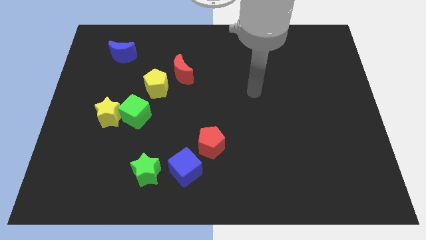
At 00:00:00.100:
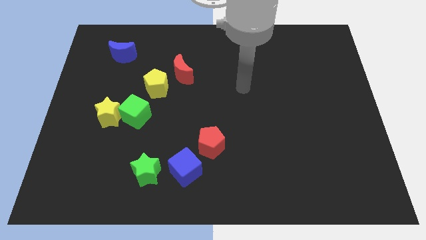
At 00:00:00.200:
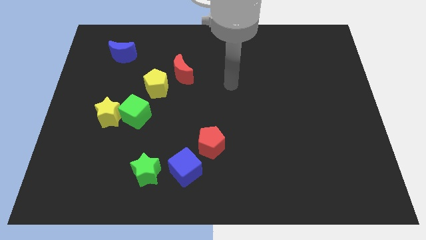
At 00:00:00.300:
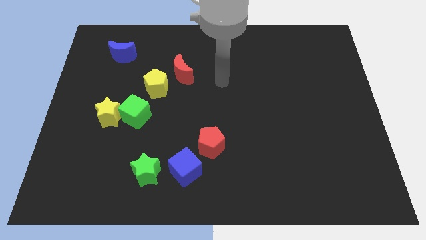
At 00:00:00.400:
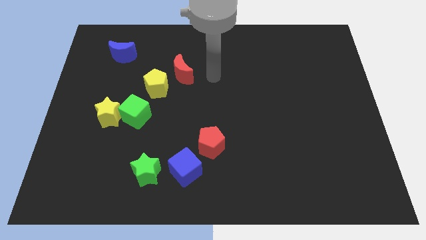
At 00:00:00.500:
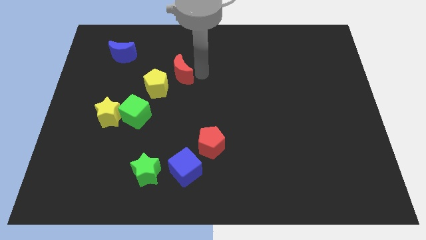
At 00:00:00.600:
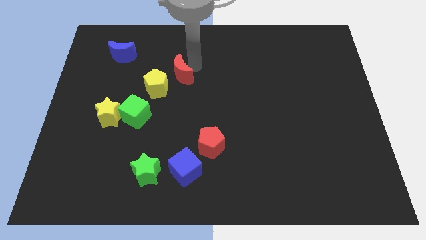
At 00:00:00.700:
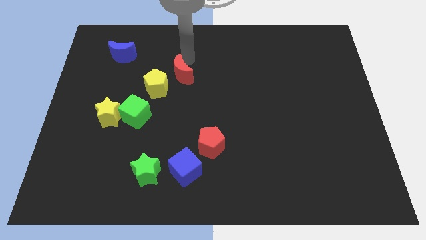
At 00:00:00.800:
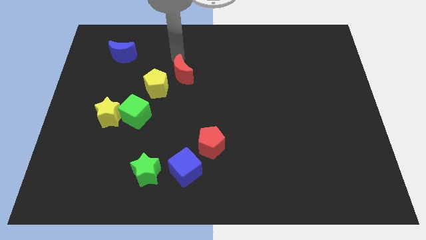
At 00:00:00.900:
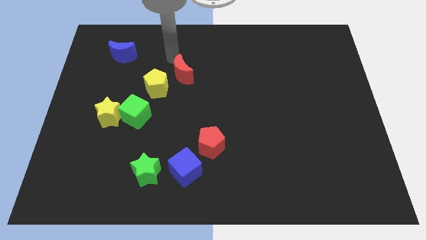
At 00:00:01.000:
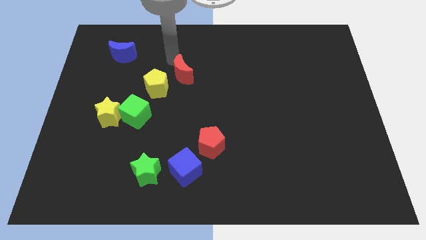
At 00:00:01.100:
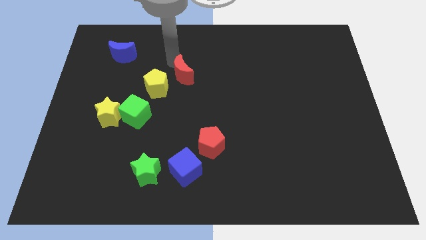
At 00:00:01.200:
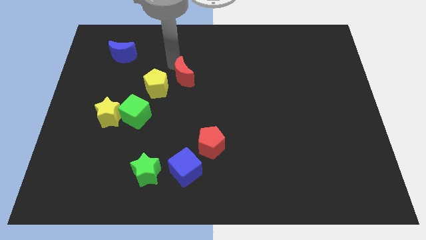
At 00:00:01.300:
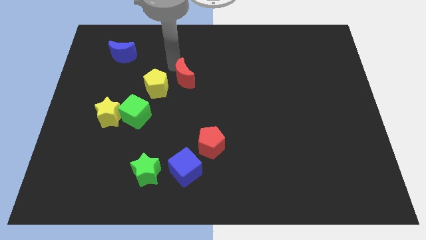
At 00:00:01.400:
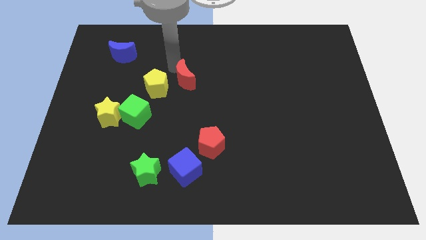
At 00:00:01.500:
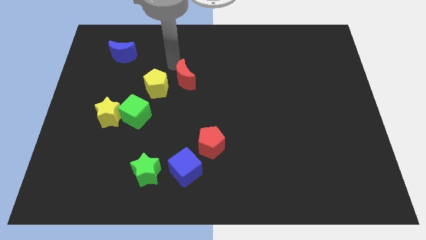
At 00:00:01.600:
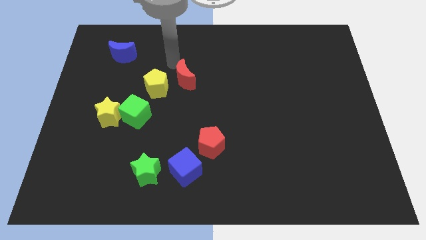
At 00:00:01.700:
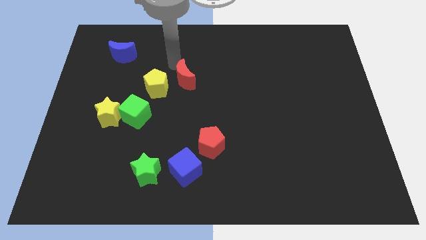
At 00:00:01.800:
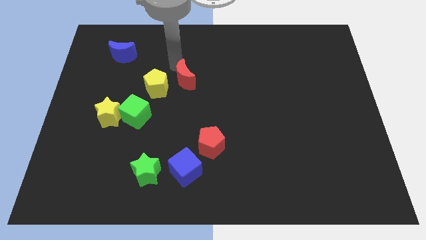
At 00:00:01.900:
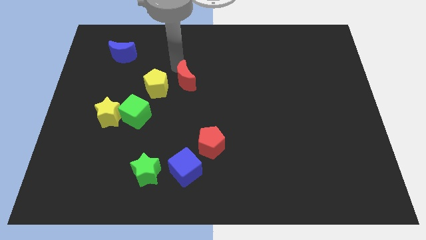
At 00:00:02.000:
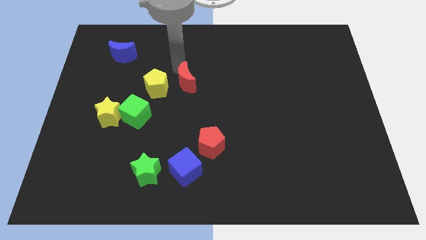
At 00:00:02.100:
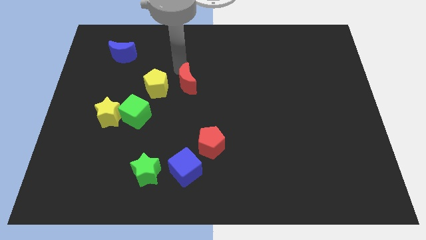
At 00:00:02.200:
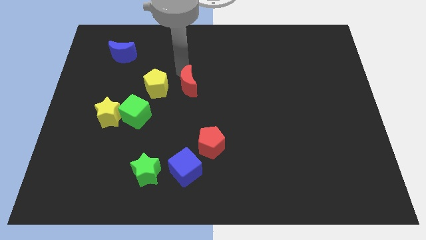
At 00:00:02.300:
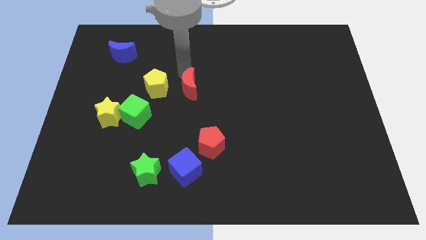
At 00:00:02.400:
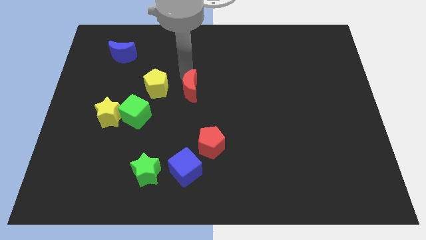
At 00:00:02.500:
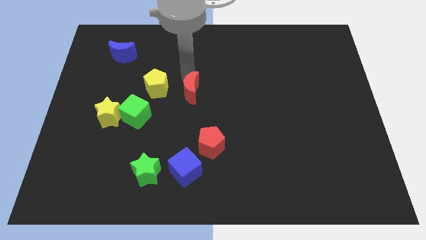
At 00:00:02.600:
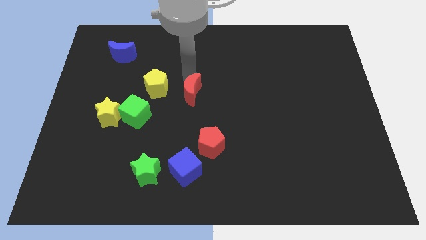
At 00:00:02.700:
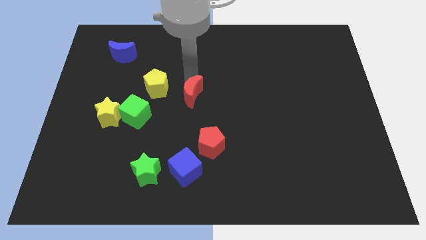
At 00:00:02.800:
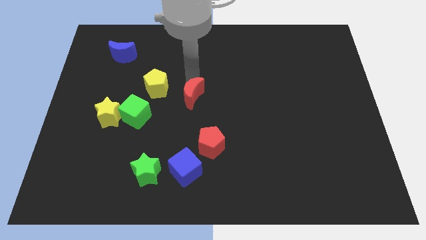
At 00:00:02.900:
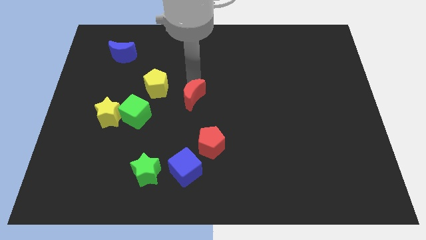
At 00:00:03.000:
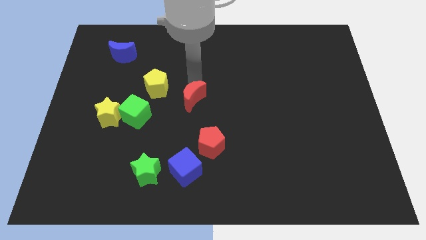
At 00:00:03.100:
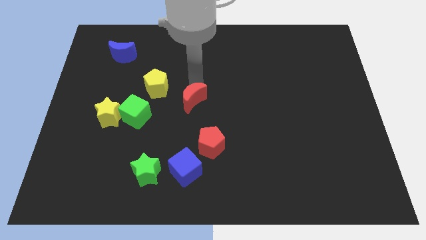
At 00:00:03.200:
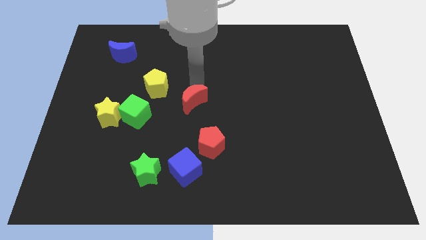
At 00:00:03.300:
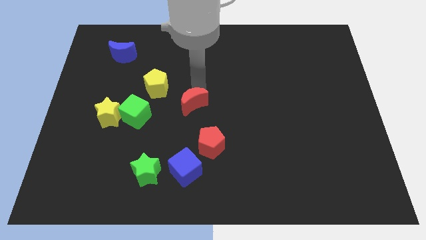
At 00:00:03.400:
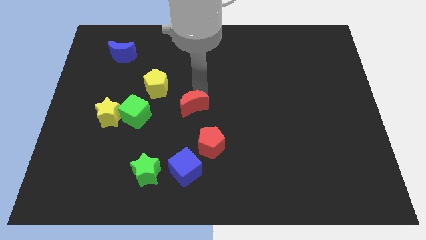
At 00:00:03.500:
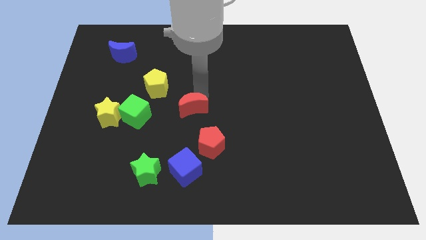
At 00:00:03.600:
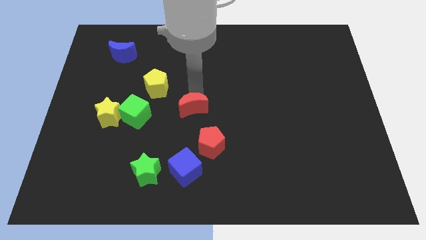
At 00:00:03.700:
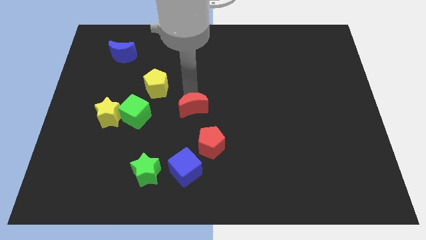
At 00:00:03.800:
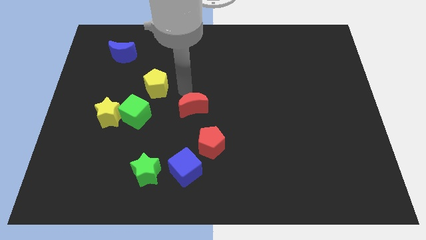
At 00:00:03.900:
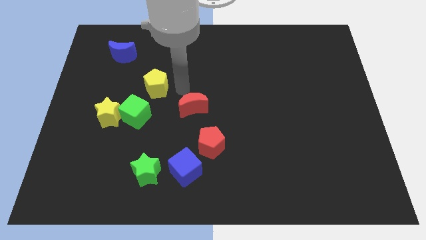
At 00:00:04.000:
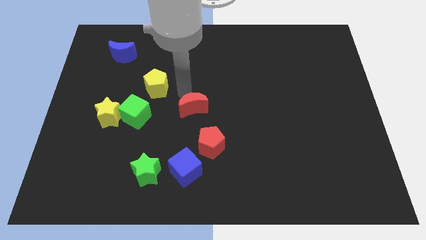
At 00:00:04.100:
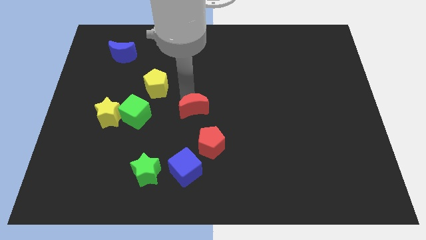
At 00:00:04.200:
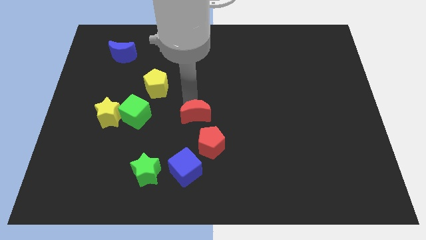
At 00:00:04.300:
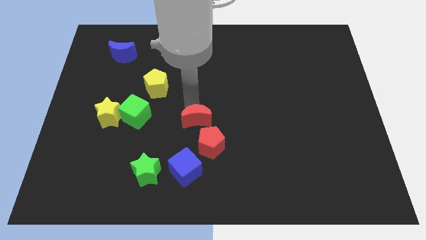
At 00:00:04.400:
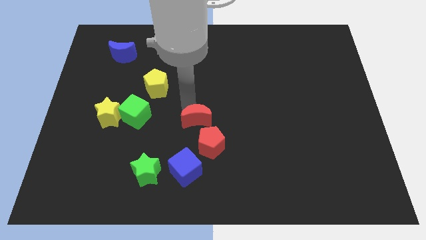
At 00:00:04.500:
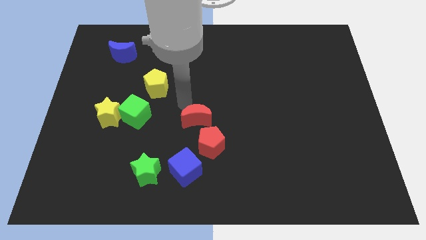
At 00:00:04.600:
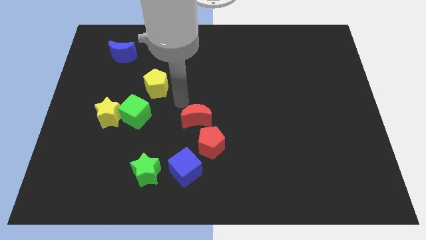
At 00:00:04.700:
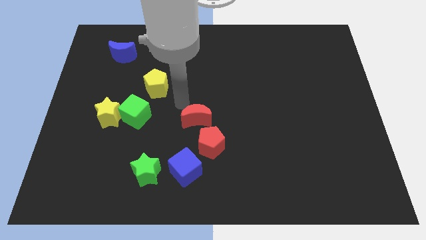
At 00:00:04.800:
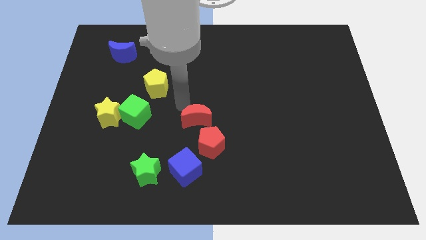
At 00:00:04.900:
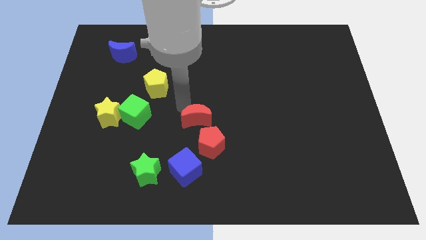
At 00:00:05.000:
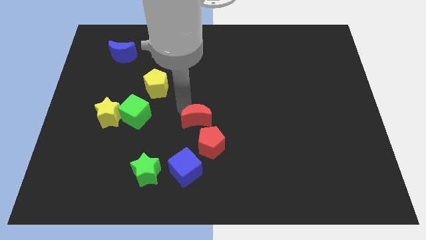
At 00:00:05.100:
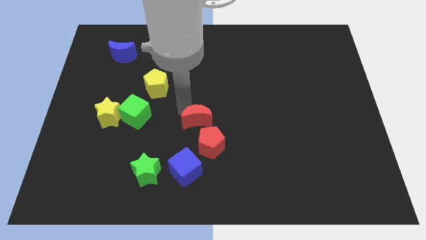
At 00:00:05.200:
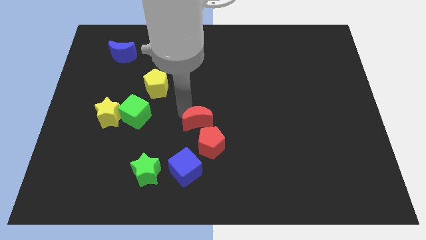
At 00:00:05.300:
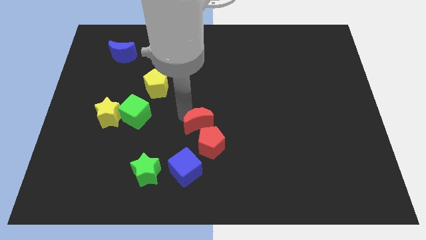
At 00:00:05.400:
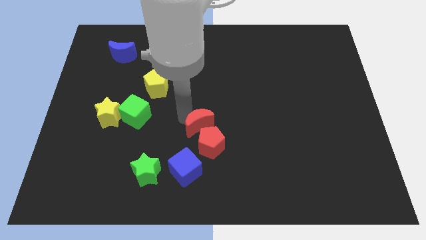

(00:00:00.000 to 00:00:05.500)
push the red moon to the red pentagon

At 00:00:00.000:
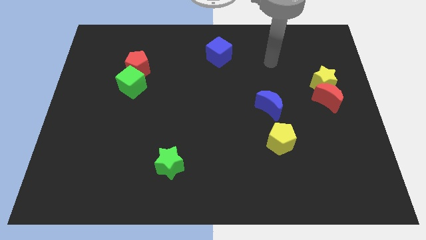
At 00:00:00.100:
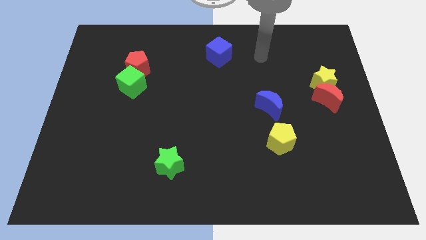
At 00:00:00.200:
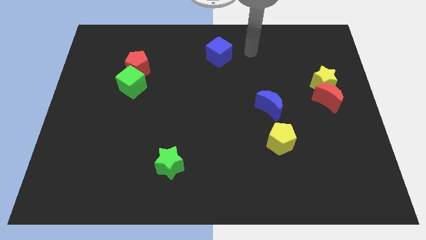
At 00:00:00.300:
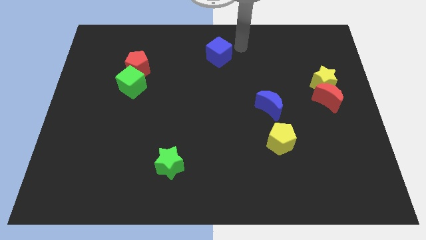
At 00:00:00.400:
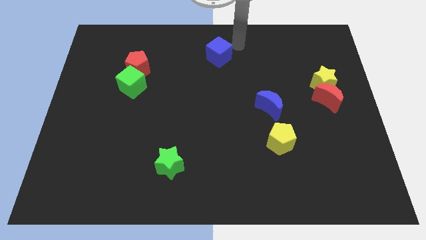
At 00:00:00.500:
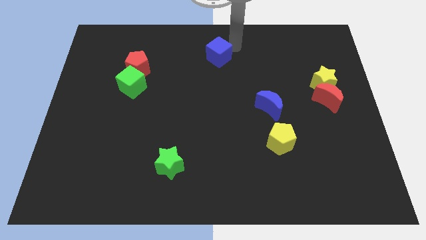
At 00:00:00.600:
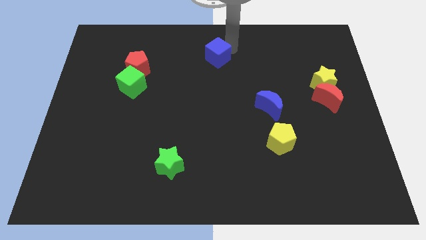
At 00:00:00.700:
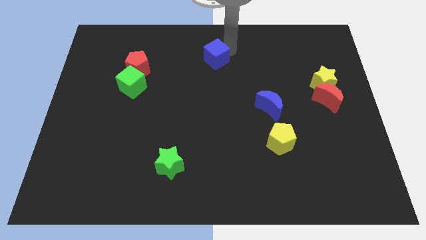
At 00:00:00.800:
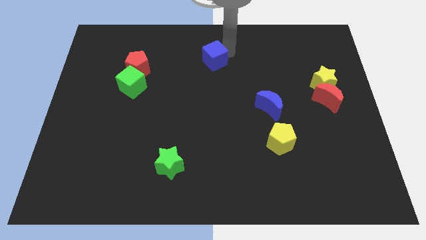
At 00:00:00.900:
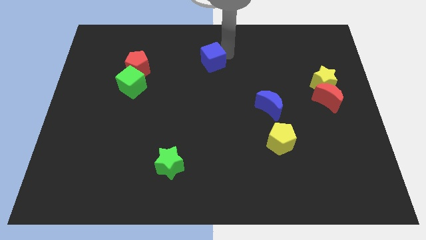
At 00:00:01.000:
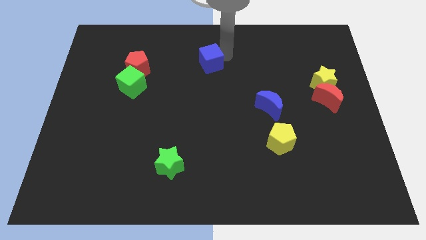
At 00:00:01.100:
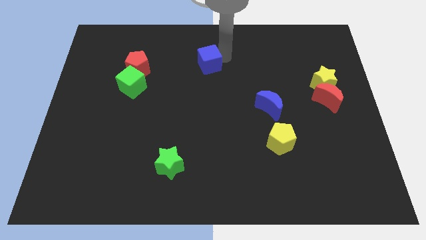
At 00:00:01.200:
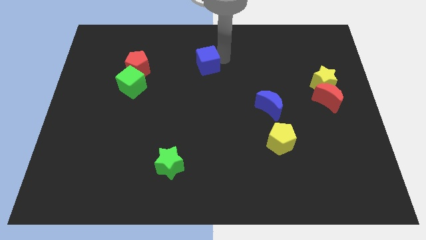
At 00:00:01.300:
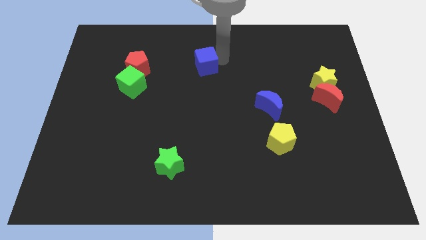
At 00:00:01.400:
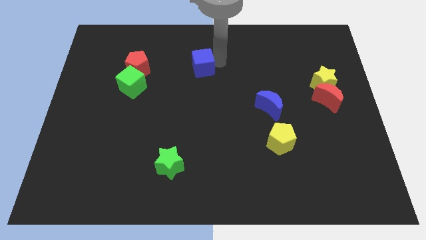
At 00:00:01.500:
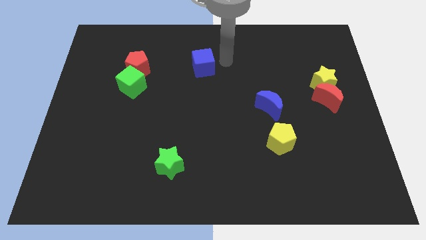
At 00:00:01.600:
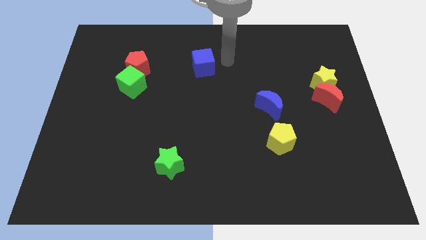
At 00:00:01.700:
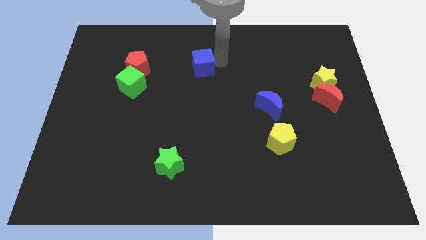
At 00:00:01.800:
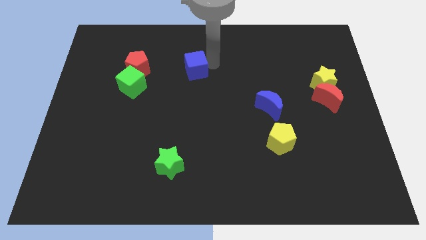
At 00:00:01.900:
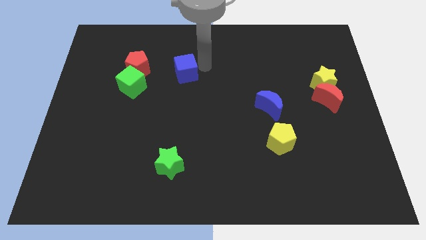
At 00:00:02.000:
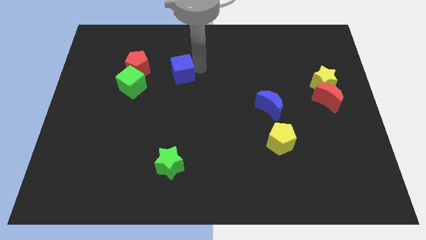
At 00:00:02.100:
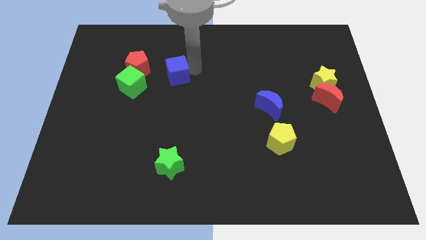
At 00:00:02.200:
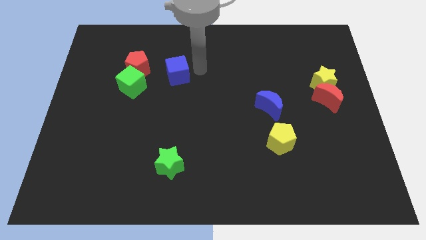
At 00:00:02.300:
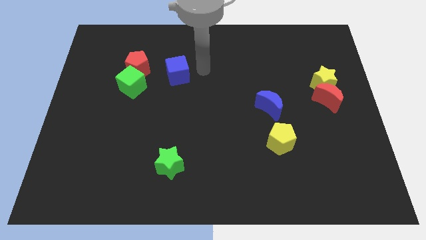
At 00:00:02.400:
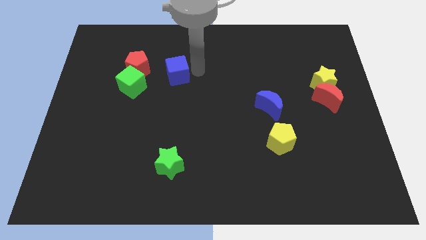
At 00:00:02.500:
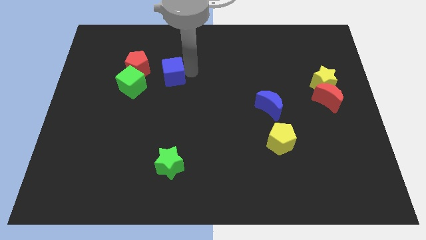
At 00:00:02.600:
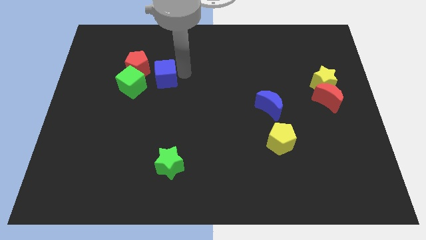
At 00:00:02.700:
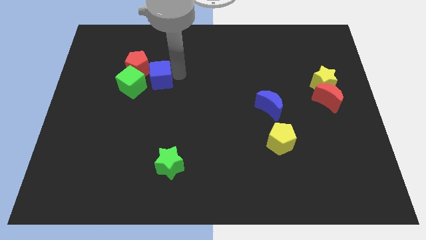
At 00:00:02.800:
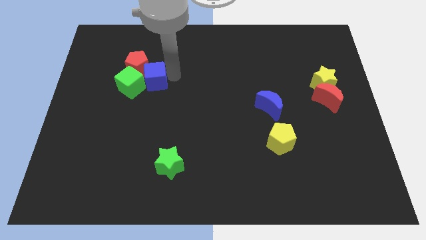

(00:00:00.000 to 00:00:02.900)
put the blue cube to the green cube
